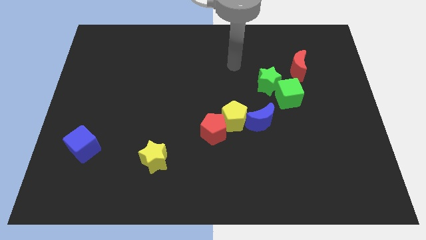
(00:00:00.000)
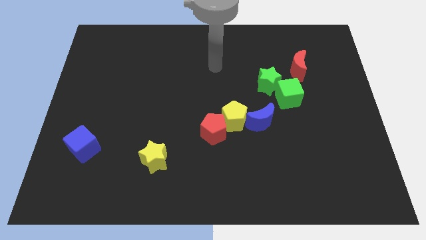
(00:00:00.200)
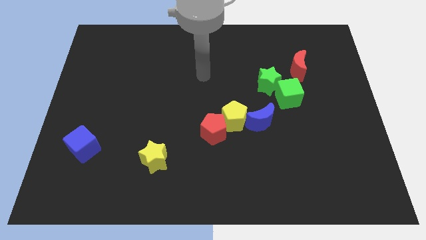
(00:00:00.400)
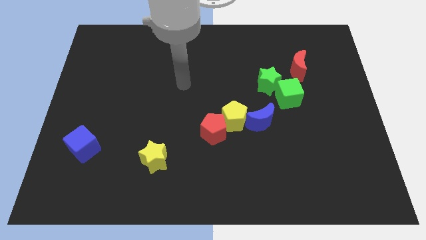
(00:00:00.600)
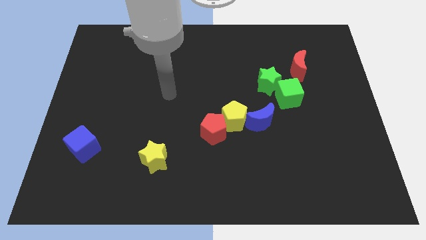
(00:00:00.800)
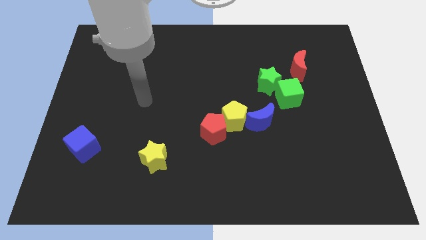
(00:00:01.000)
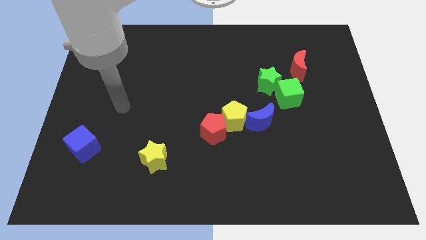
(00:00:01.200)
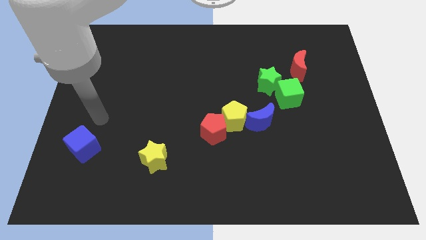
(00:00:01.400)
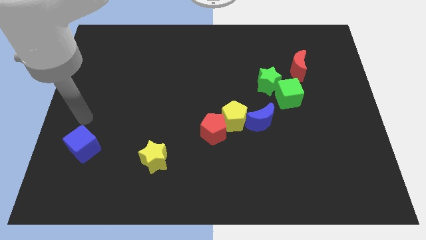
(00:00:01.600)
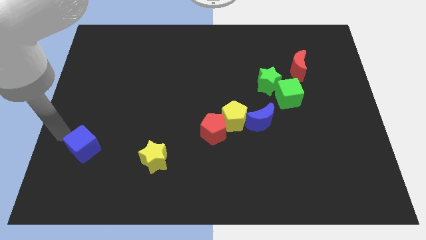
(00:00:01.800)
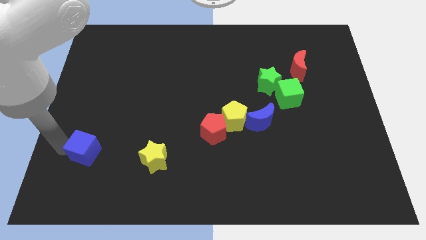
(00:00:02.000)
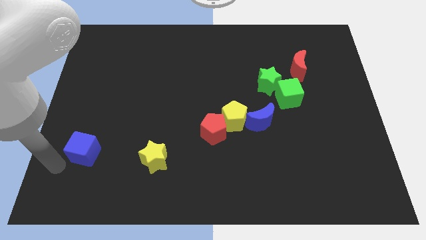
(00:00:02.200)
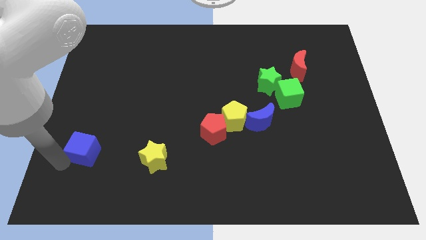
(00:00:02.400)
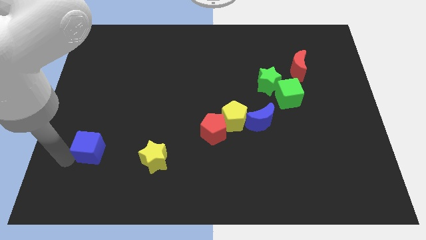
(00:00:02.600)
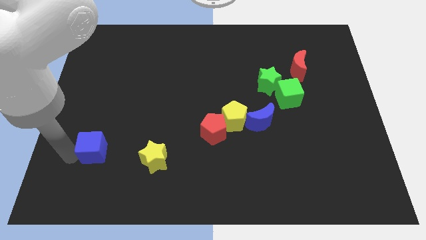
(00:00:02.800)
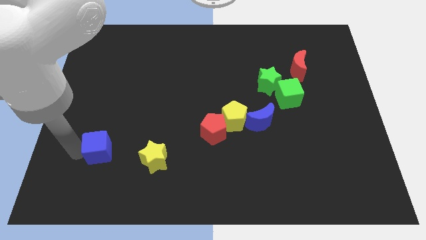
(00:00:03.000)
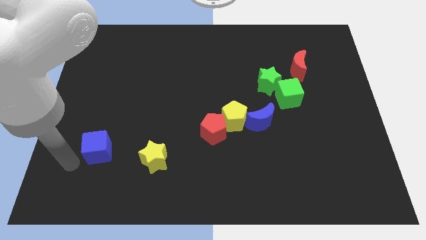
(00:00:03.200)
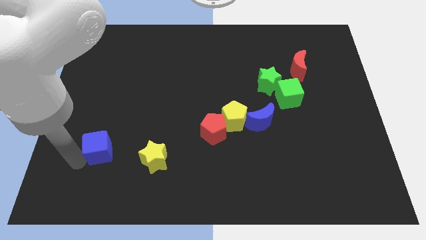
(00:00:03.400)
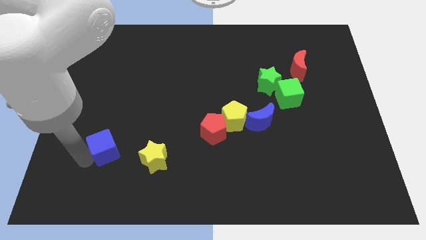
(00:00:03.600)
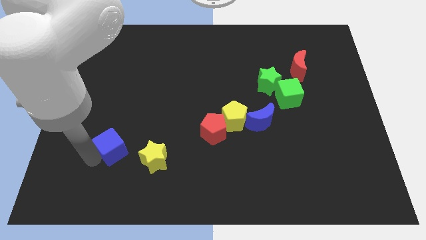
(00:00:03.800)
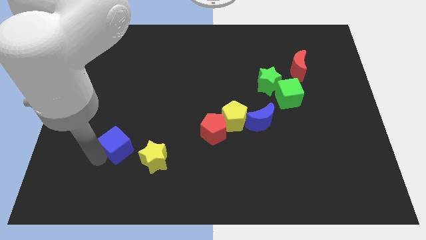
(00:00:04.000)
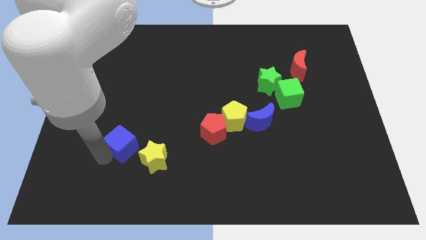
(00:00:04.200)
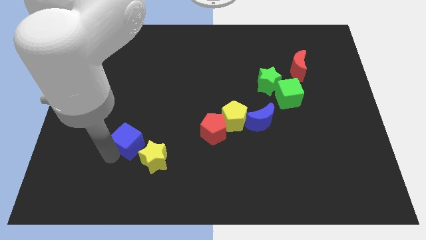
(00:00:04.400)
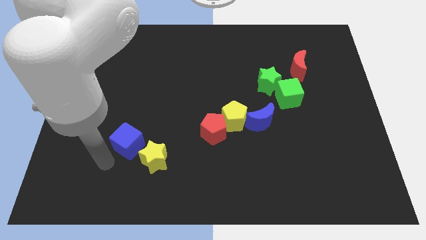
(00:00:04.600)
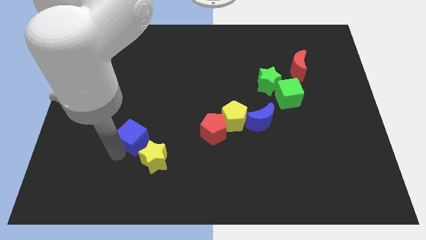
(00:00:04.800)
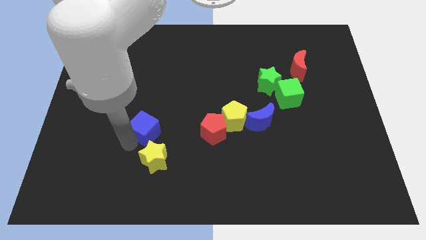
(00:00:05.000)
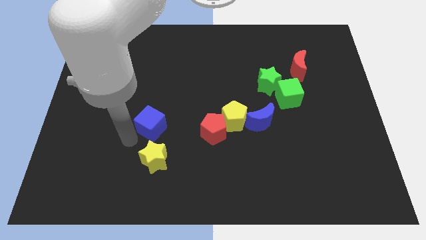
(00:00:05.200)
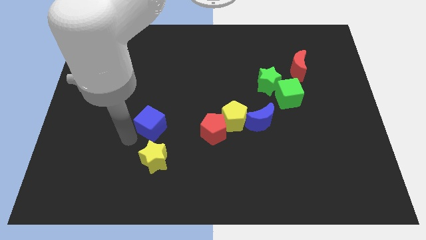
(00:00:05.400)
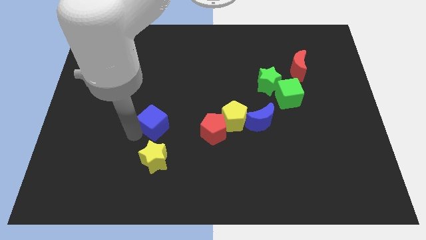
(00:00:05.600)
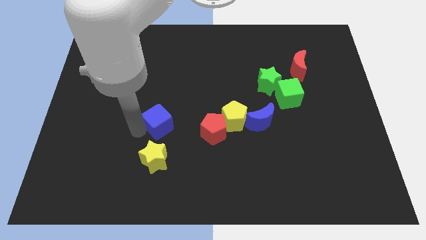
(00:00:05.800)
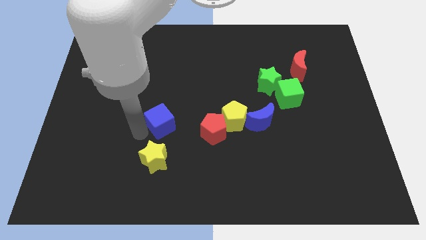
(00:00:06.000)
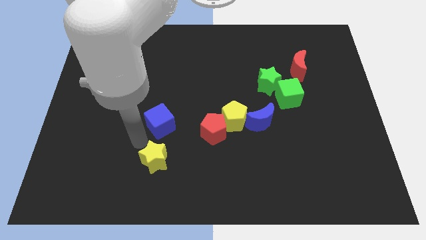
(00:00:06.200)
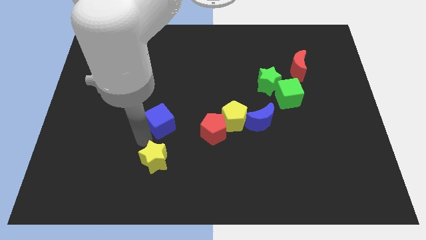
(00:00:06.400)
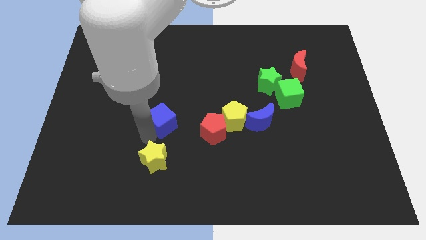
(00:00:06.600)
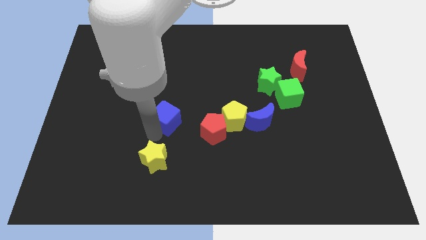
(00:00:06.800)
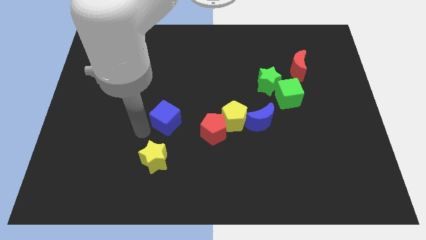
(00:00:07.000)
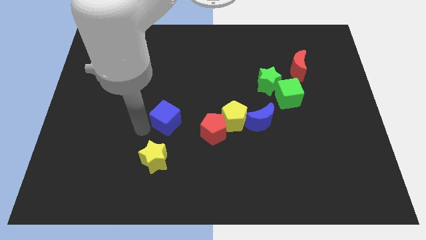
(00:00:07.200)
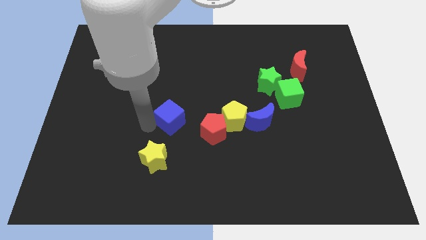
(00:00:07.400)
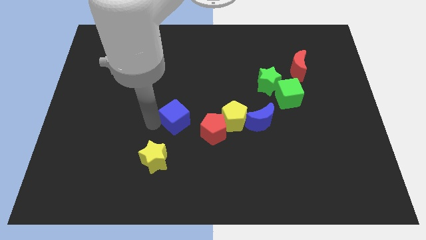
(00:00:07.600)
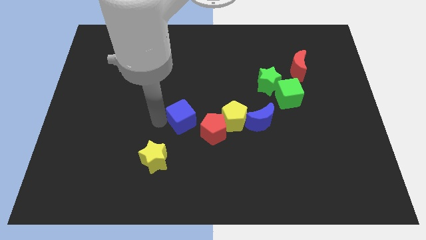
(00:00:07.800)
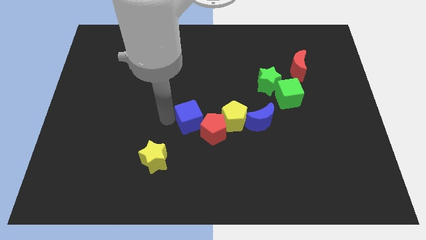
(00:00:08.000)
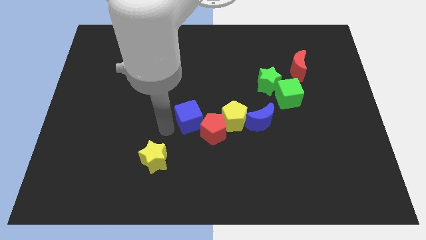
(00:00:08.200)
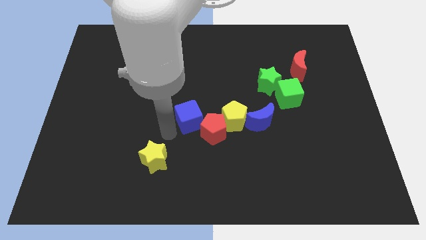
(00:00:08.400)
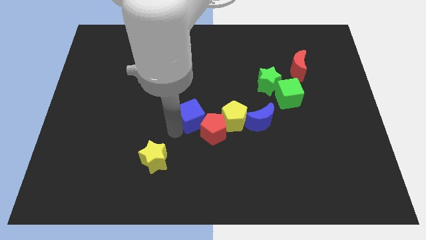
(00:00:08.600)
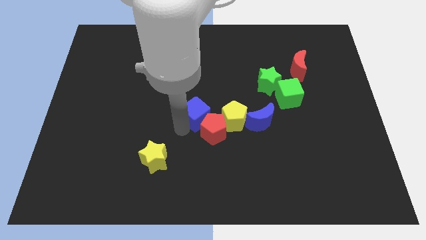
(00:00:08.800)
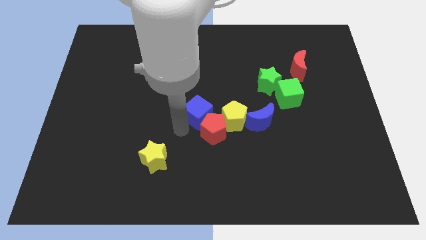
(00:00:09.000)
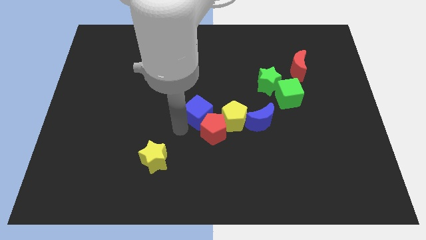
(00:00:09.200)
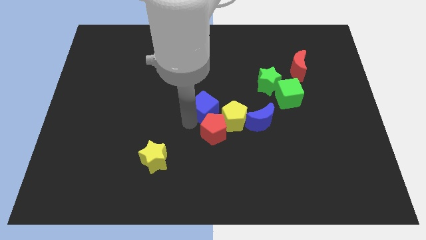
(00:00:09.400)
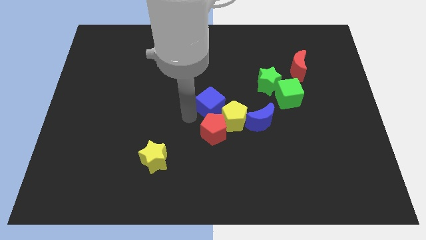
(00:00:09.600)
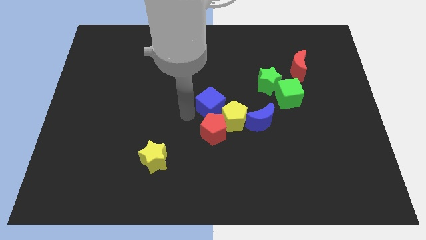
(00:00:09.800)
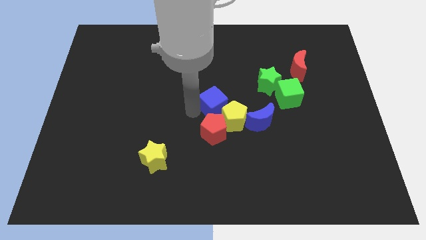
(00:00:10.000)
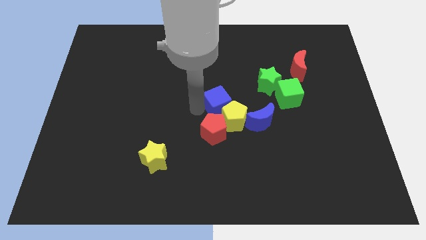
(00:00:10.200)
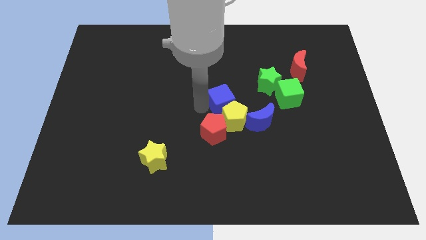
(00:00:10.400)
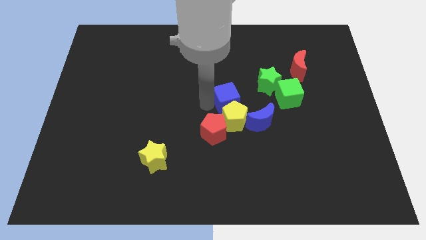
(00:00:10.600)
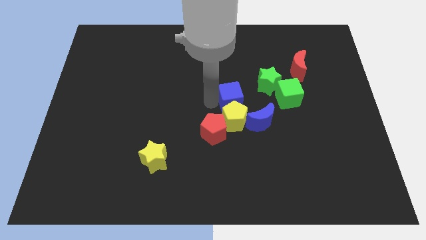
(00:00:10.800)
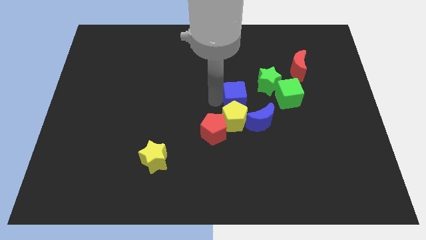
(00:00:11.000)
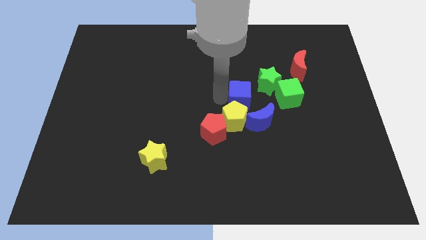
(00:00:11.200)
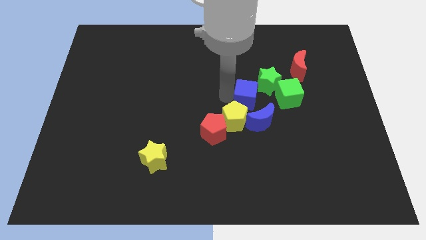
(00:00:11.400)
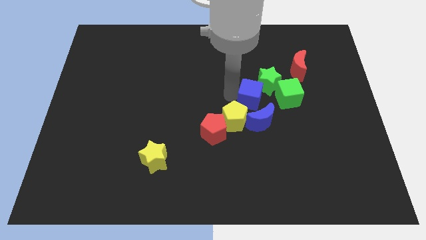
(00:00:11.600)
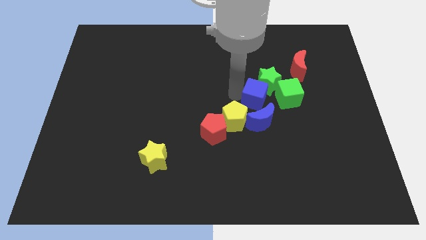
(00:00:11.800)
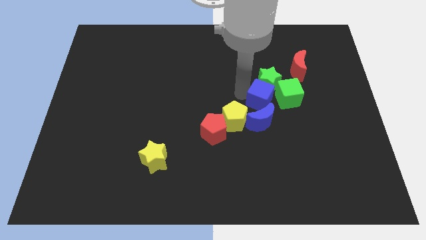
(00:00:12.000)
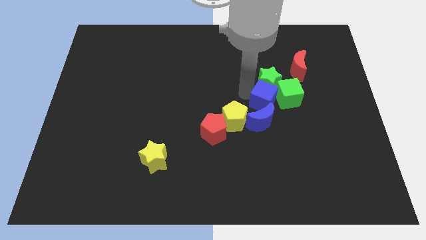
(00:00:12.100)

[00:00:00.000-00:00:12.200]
move the blue cube to the bottom right side of the green star
